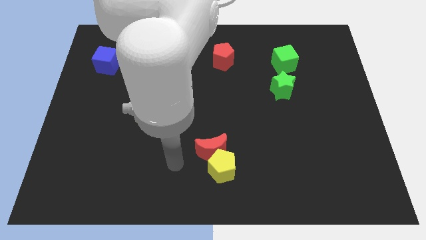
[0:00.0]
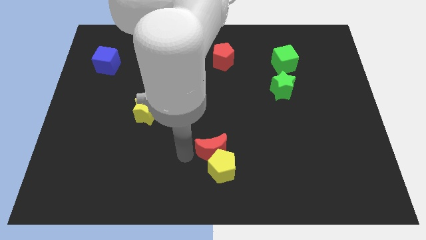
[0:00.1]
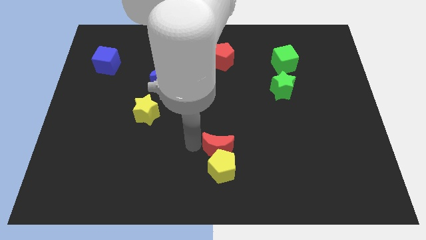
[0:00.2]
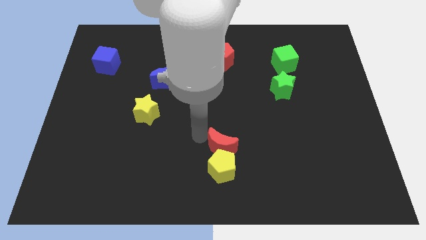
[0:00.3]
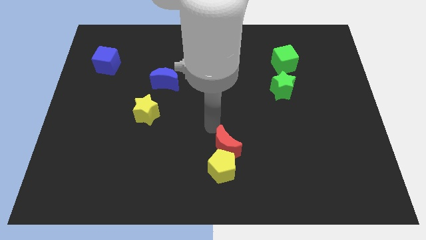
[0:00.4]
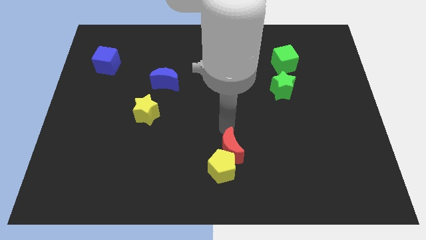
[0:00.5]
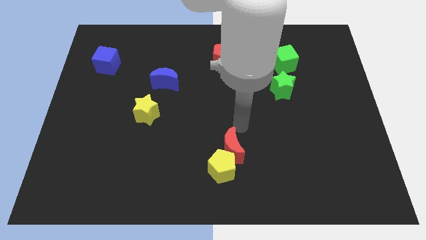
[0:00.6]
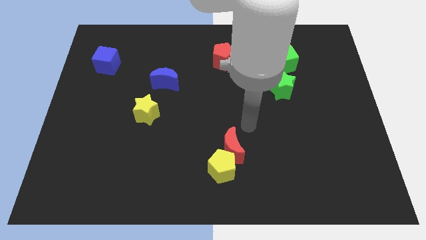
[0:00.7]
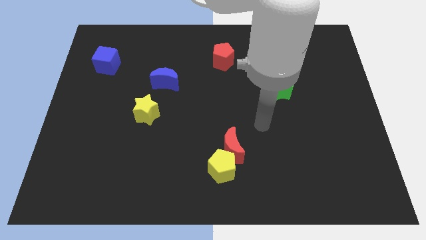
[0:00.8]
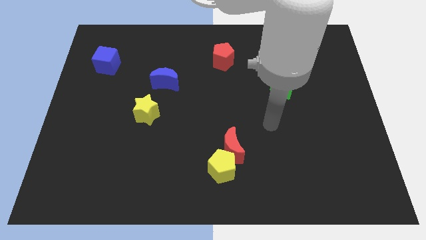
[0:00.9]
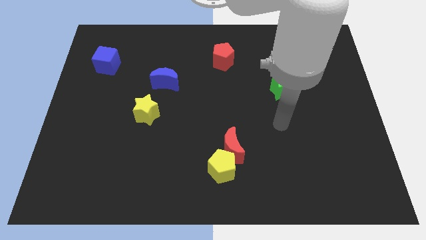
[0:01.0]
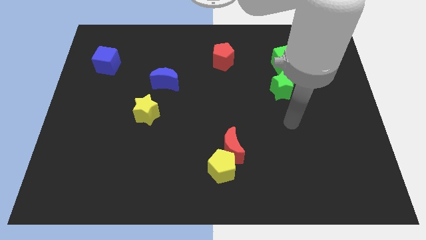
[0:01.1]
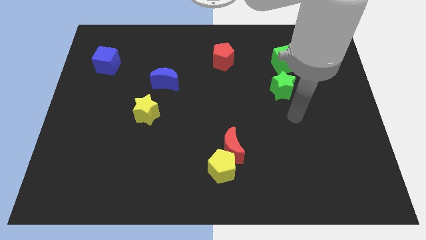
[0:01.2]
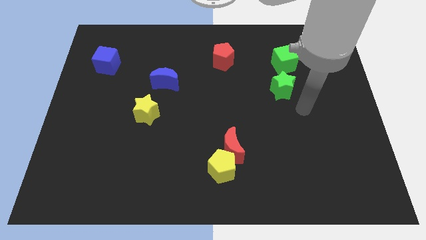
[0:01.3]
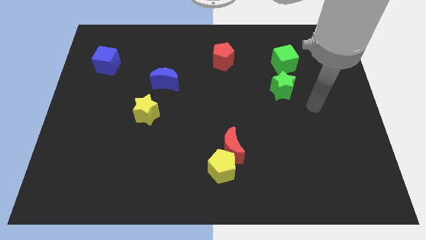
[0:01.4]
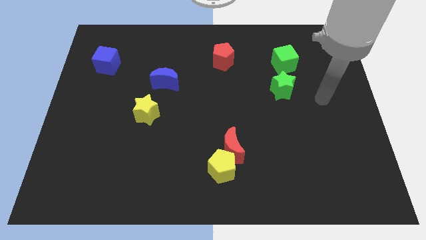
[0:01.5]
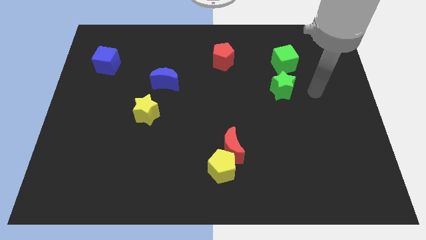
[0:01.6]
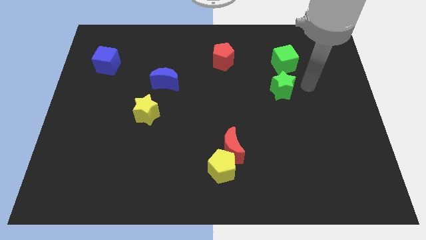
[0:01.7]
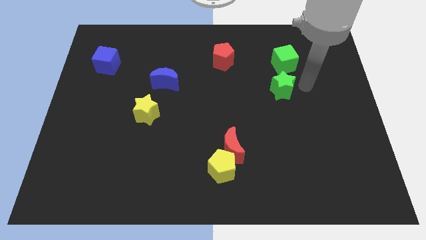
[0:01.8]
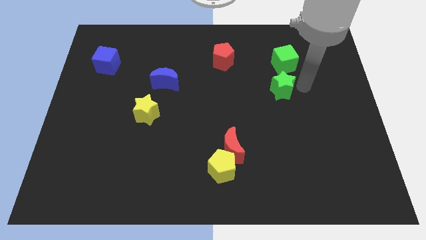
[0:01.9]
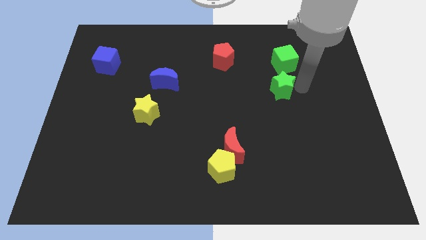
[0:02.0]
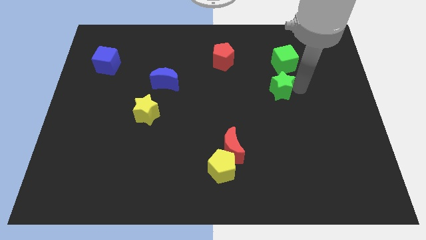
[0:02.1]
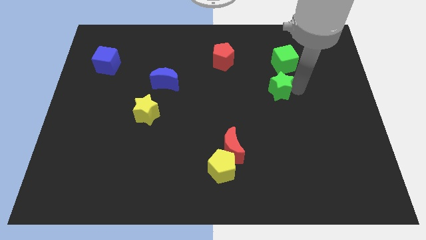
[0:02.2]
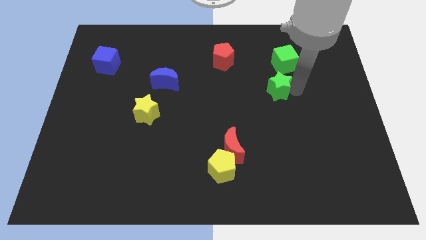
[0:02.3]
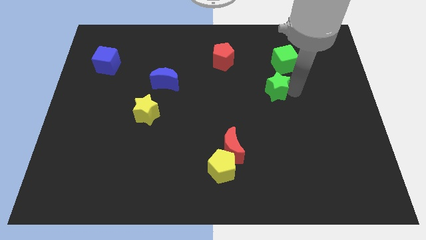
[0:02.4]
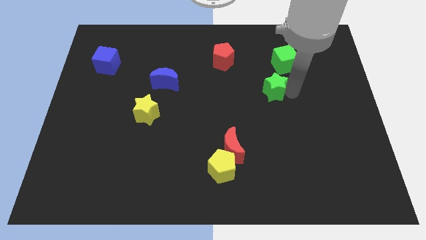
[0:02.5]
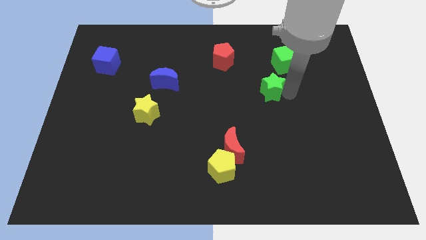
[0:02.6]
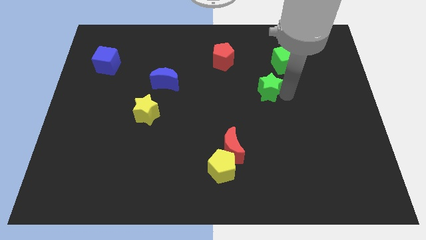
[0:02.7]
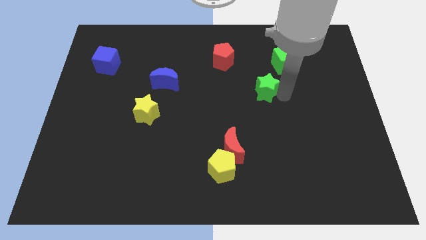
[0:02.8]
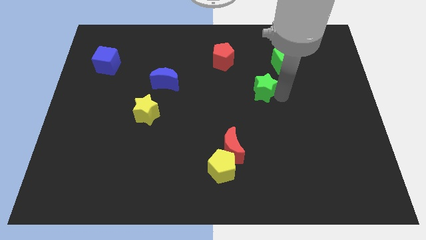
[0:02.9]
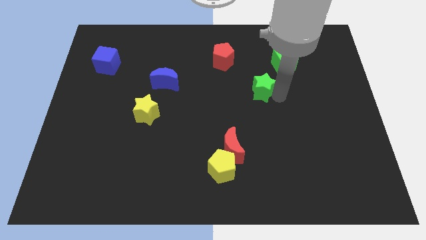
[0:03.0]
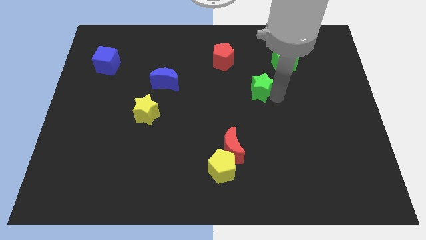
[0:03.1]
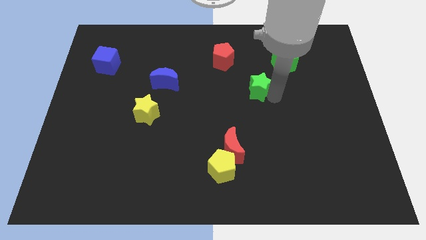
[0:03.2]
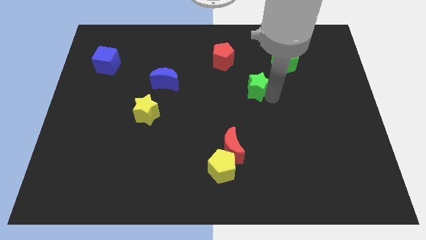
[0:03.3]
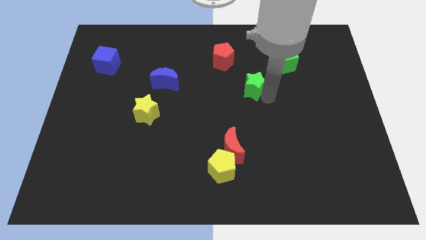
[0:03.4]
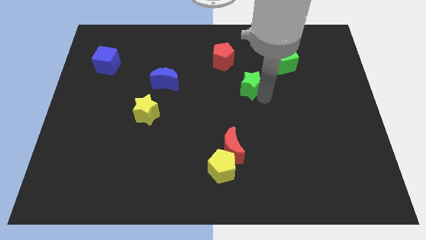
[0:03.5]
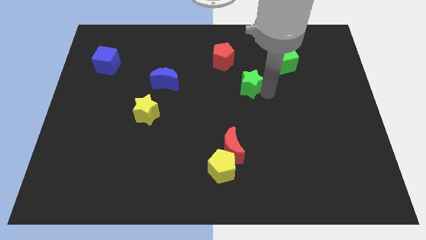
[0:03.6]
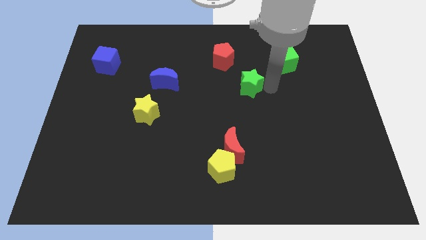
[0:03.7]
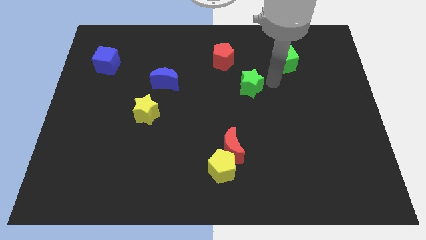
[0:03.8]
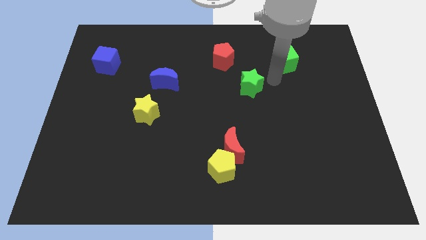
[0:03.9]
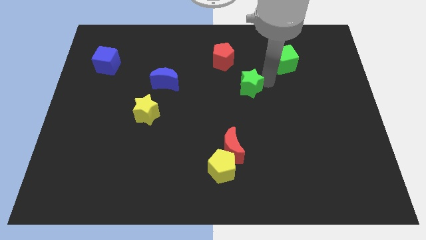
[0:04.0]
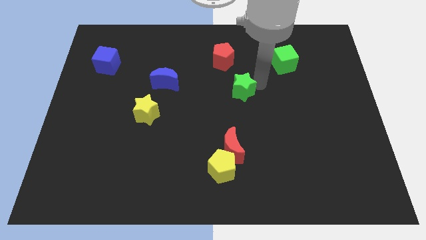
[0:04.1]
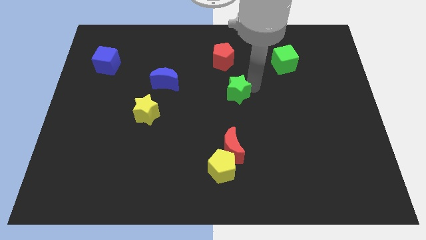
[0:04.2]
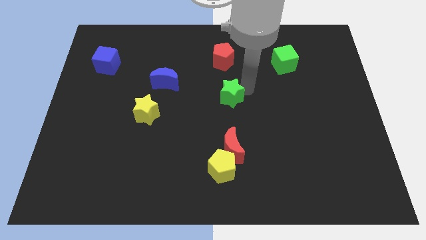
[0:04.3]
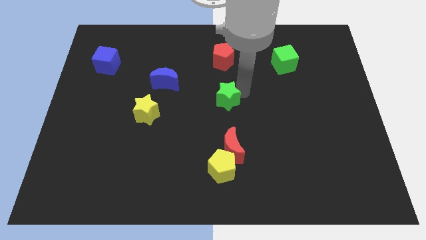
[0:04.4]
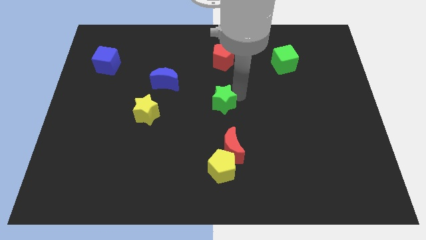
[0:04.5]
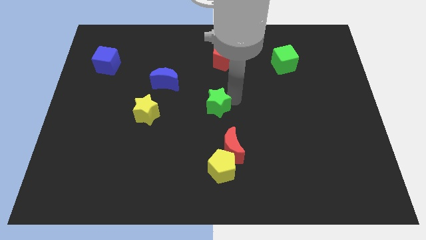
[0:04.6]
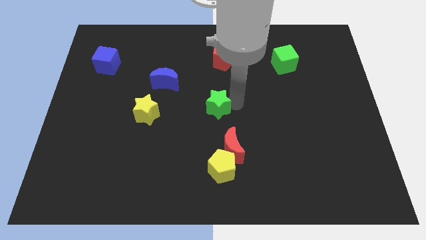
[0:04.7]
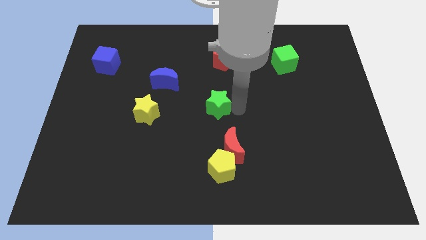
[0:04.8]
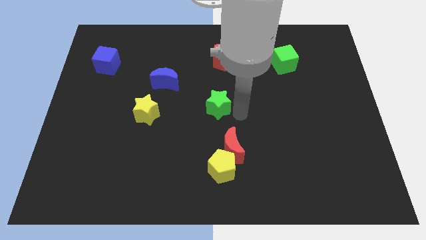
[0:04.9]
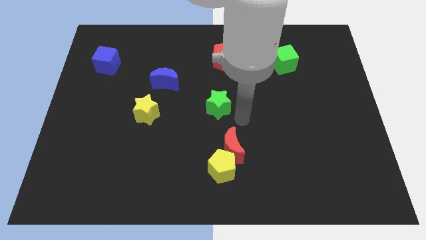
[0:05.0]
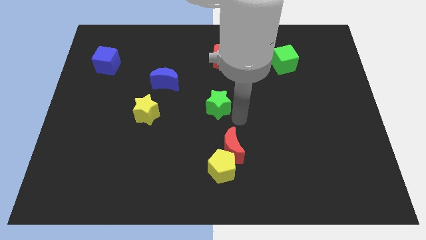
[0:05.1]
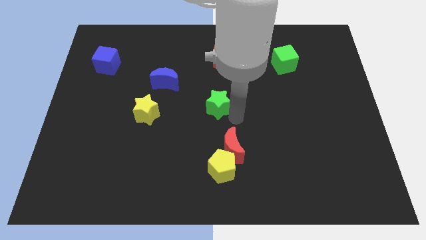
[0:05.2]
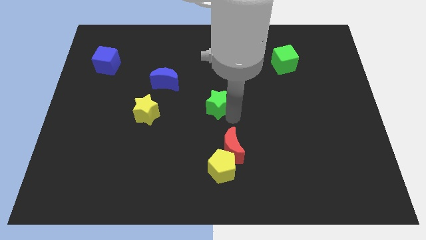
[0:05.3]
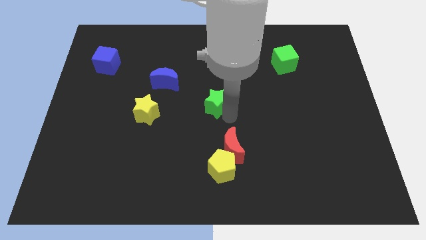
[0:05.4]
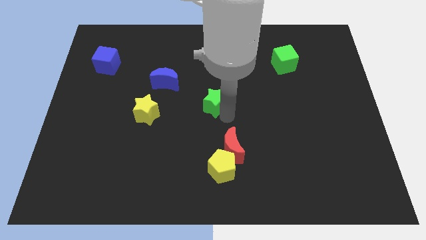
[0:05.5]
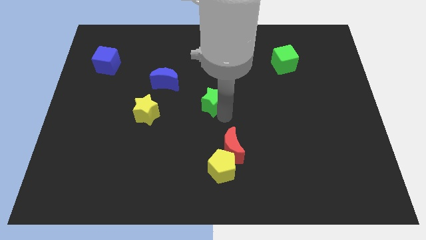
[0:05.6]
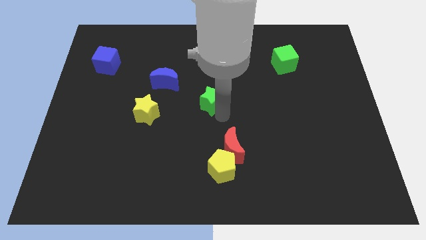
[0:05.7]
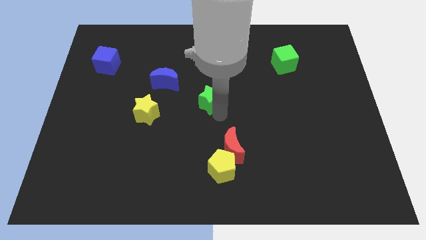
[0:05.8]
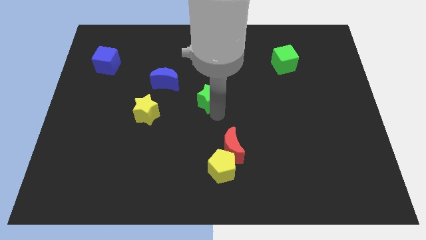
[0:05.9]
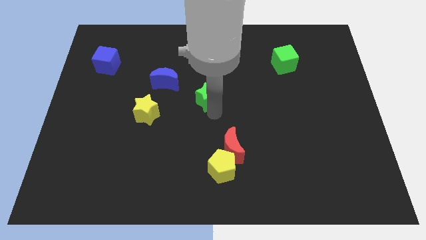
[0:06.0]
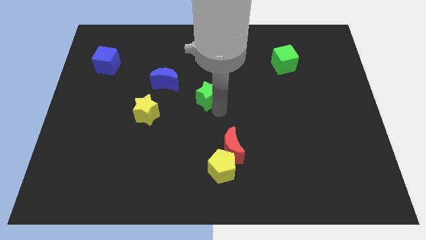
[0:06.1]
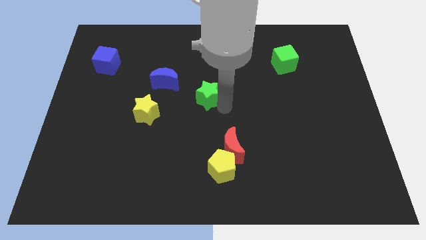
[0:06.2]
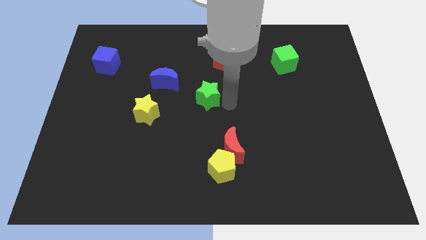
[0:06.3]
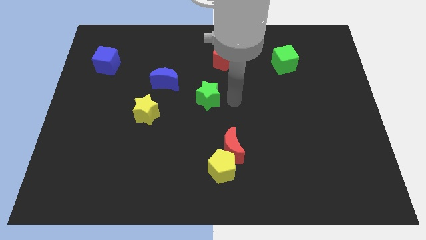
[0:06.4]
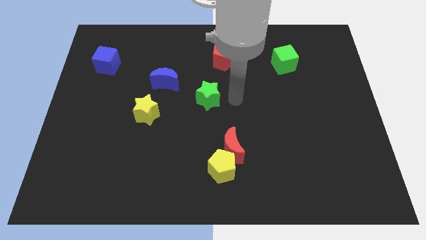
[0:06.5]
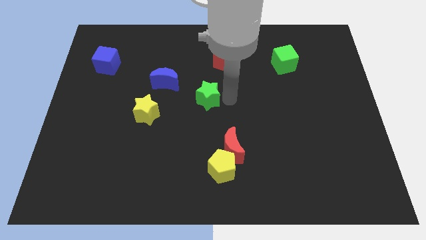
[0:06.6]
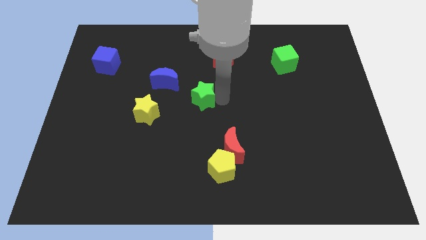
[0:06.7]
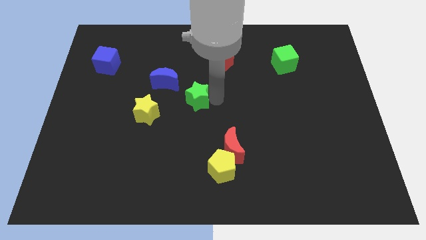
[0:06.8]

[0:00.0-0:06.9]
move the green star to the left

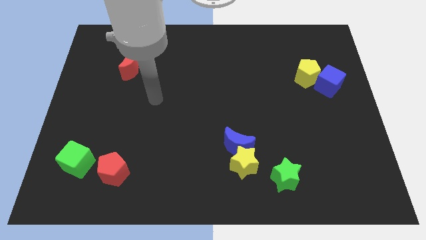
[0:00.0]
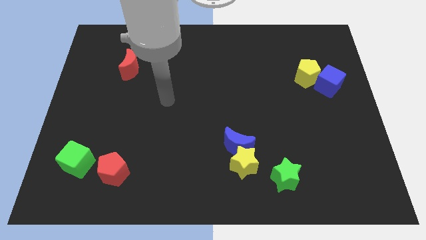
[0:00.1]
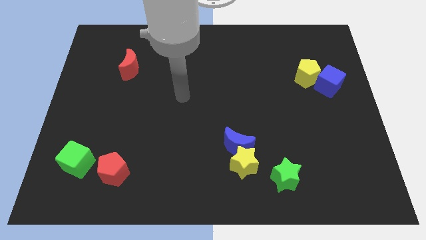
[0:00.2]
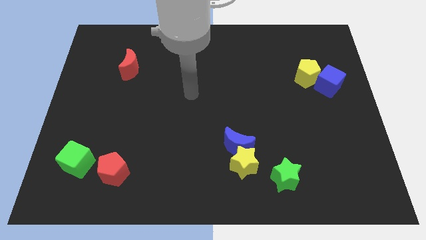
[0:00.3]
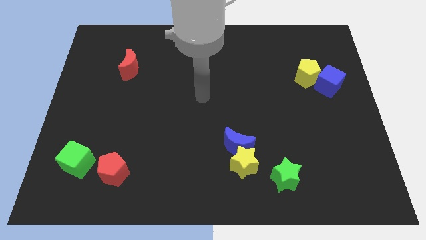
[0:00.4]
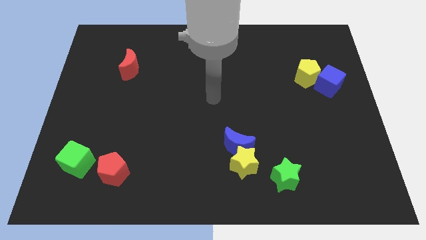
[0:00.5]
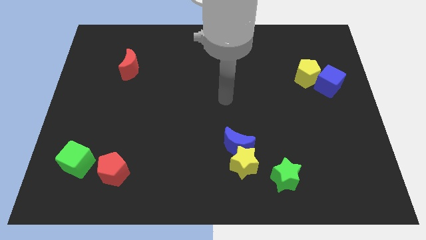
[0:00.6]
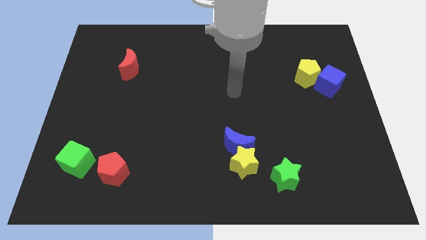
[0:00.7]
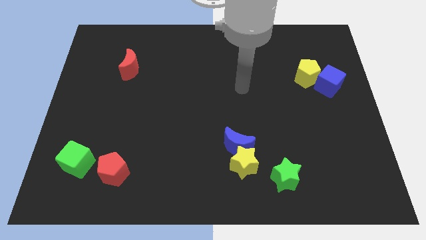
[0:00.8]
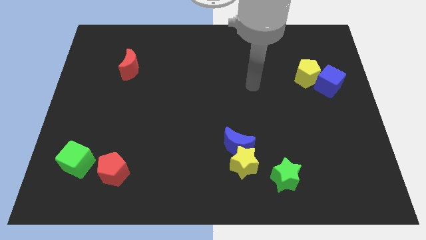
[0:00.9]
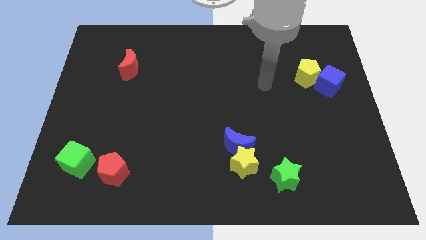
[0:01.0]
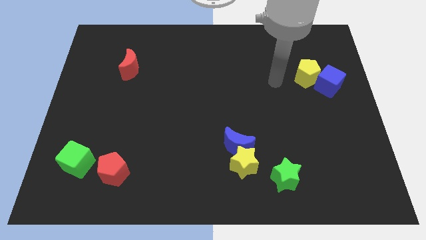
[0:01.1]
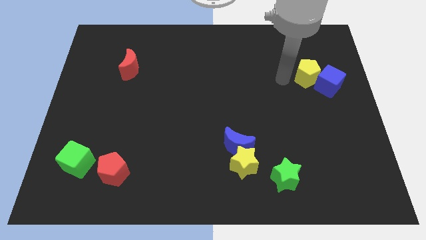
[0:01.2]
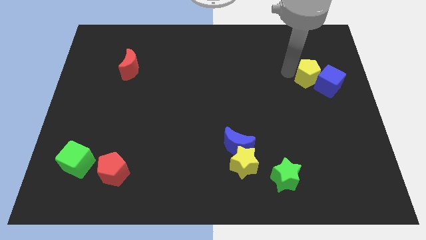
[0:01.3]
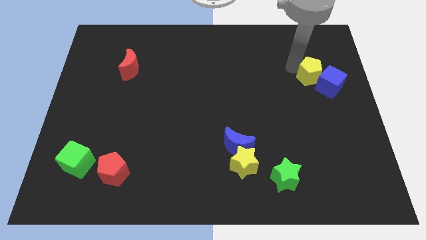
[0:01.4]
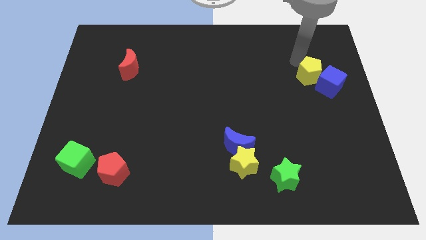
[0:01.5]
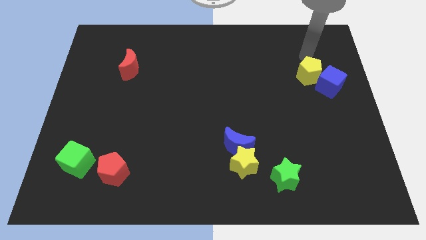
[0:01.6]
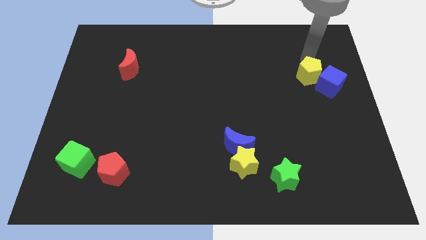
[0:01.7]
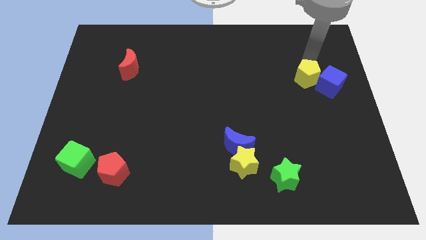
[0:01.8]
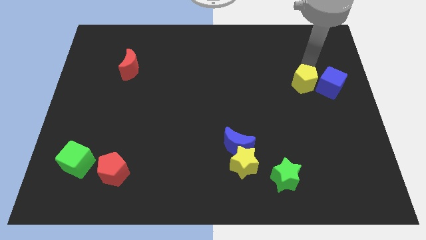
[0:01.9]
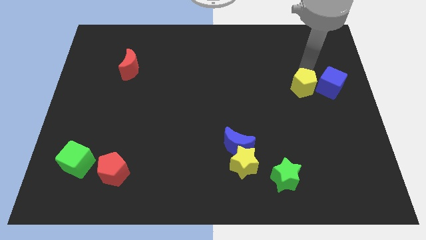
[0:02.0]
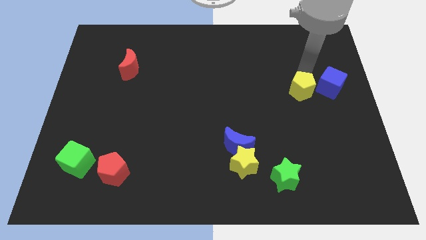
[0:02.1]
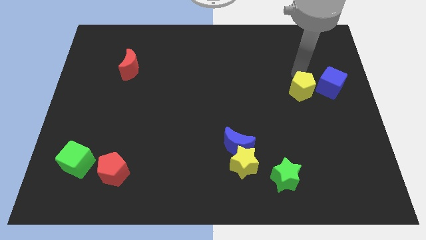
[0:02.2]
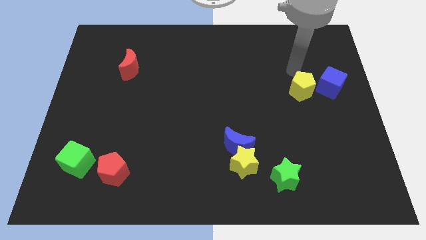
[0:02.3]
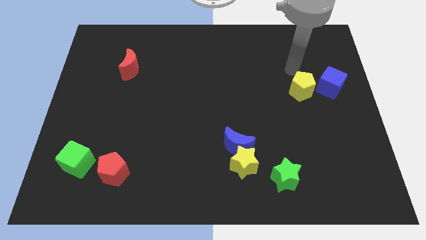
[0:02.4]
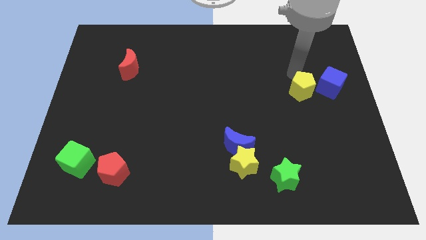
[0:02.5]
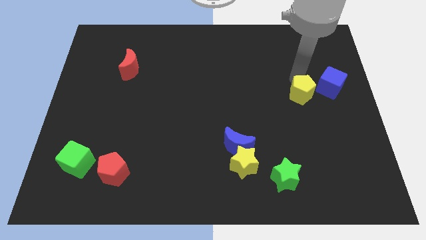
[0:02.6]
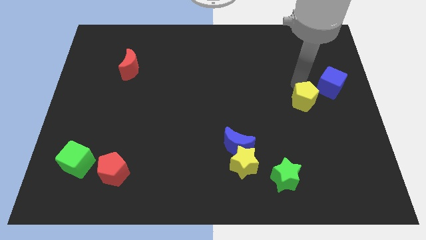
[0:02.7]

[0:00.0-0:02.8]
slightly slide the yellow pentagon downwards
